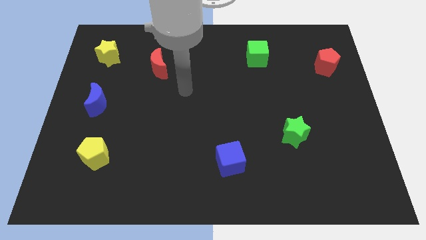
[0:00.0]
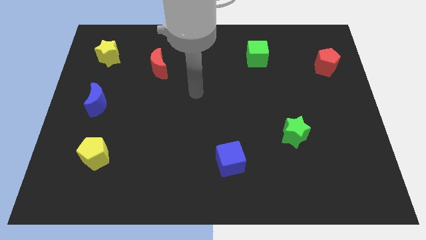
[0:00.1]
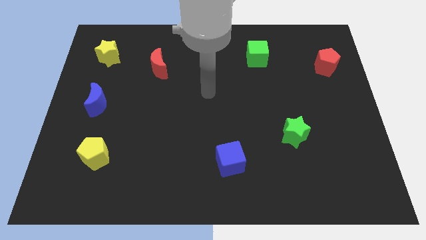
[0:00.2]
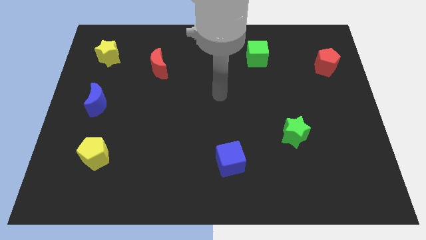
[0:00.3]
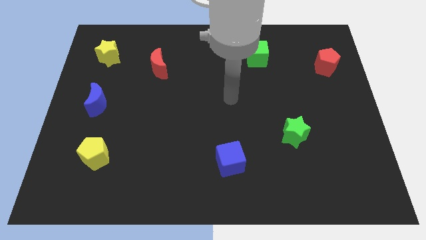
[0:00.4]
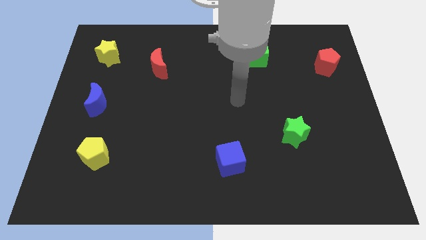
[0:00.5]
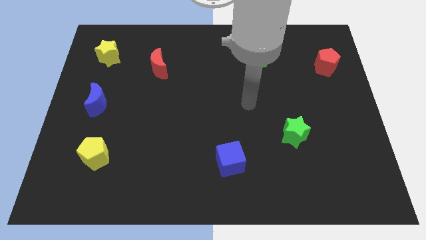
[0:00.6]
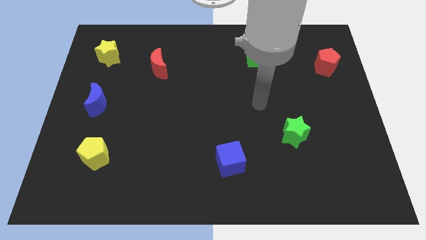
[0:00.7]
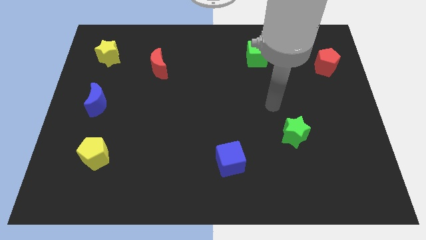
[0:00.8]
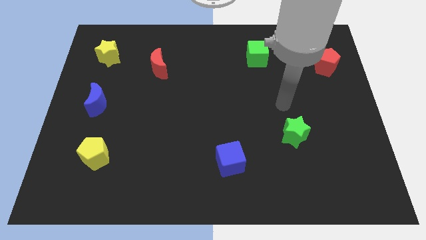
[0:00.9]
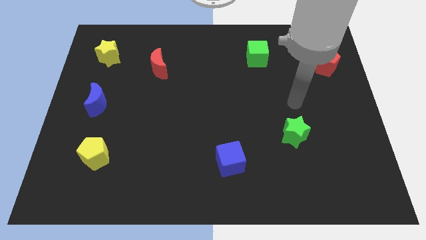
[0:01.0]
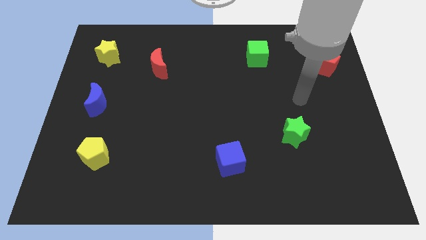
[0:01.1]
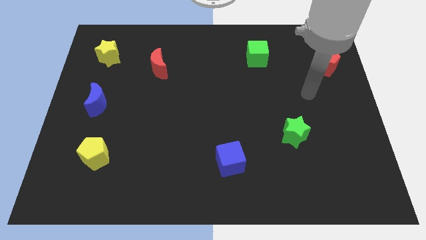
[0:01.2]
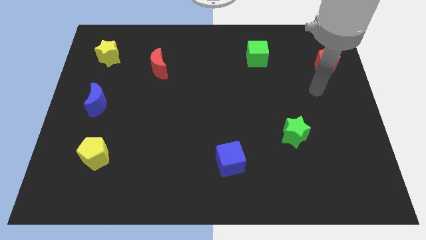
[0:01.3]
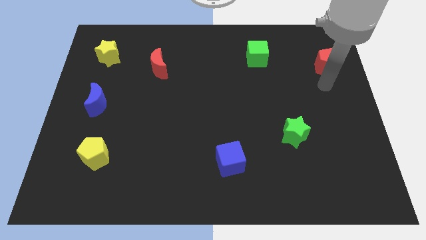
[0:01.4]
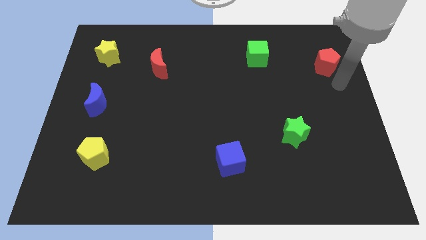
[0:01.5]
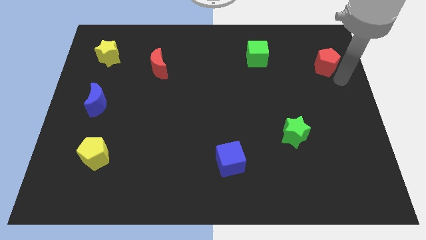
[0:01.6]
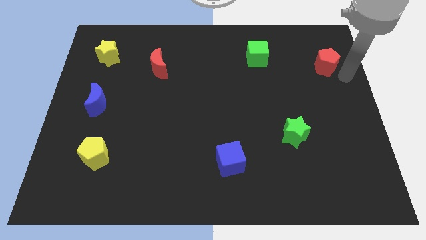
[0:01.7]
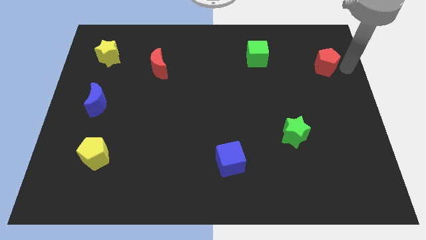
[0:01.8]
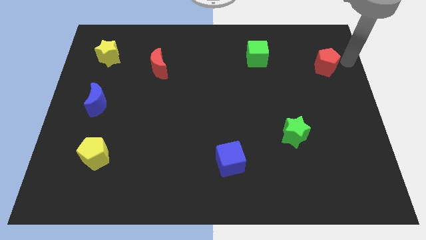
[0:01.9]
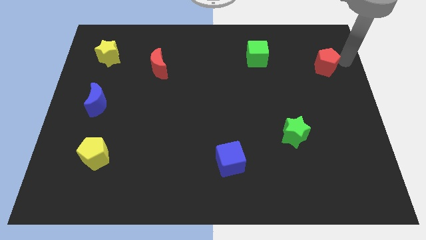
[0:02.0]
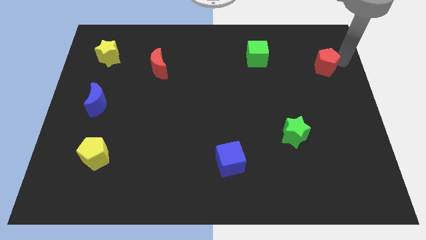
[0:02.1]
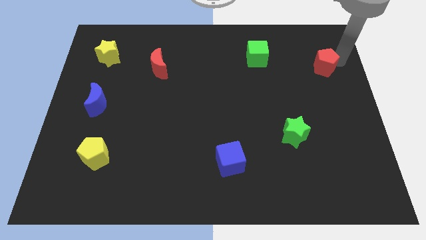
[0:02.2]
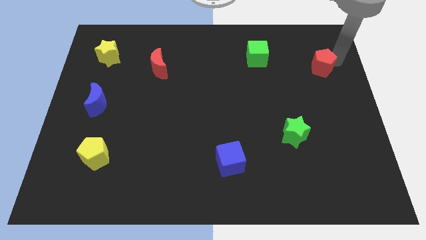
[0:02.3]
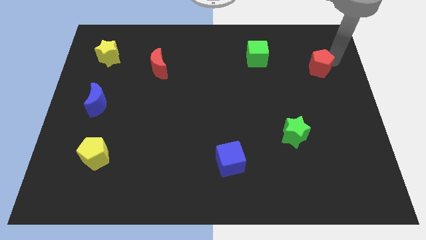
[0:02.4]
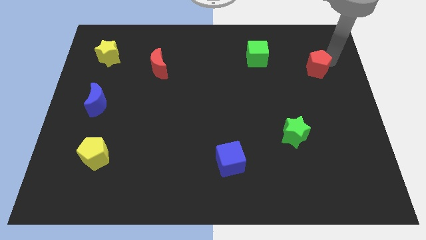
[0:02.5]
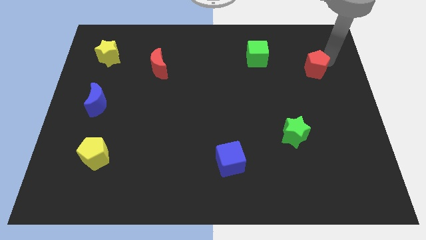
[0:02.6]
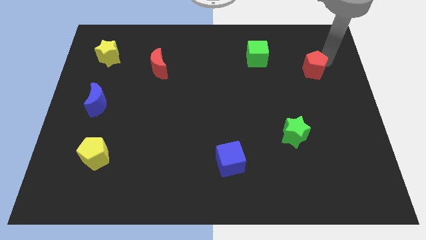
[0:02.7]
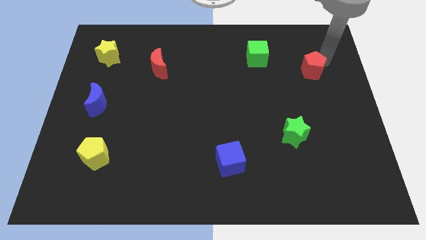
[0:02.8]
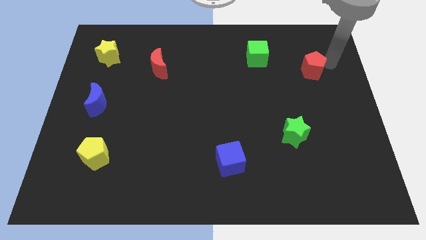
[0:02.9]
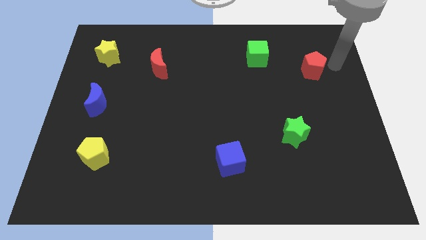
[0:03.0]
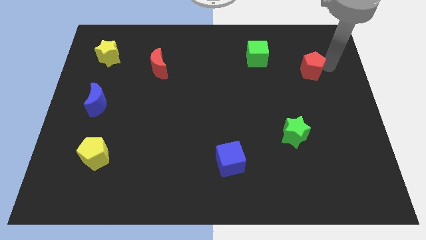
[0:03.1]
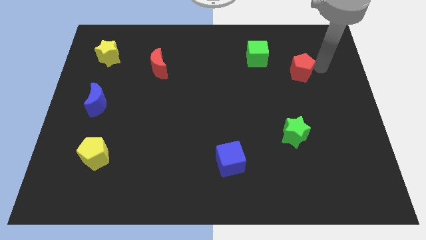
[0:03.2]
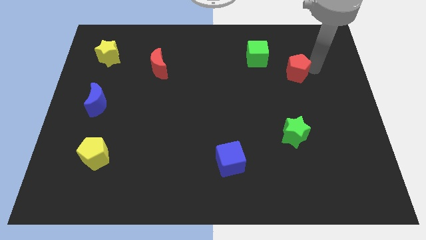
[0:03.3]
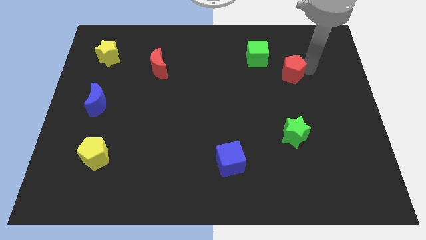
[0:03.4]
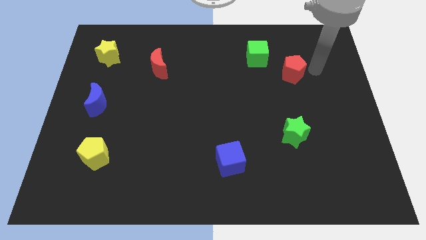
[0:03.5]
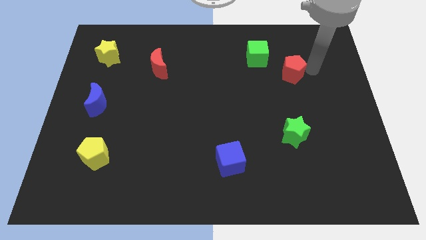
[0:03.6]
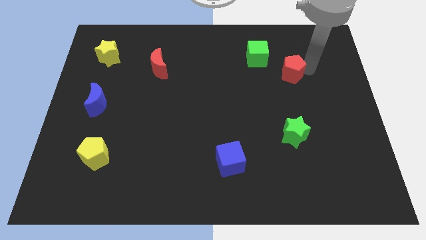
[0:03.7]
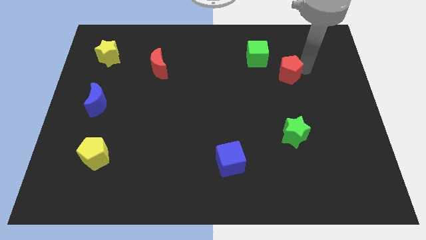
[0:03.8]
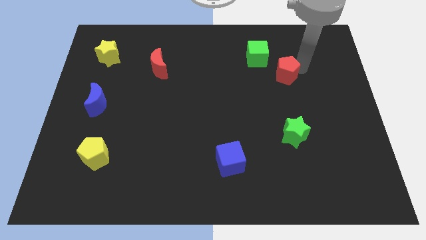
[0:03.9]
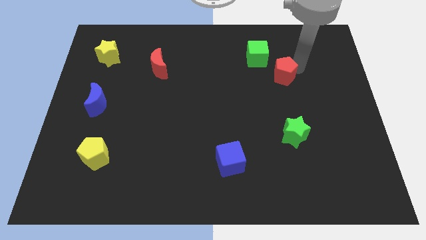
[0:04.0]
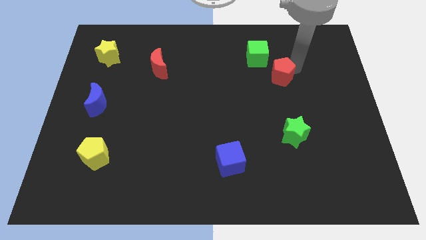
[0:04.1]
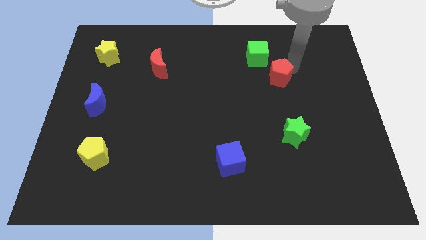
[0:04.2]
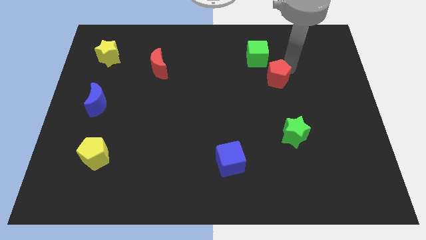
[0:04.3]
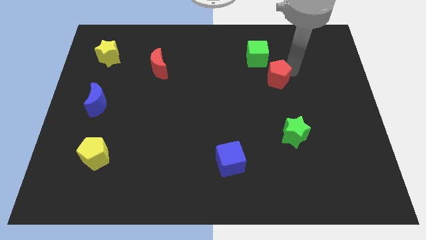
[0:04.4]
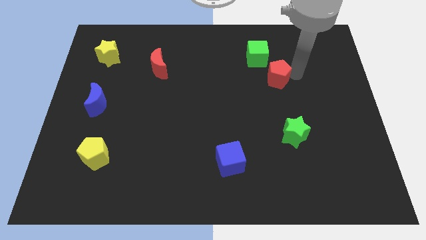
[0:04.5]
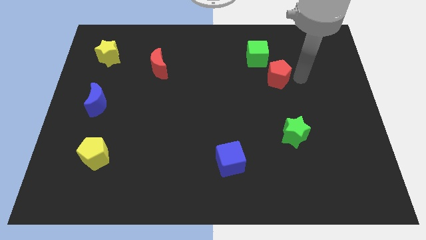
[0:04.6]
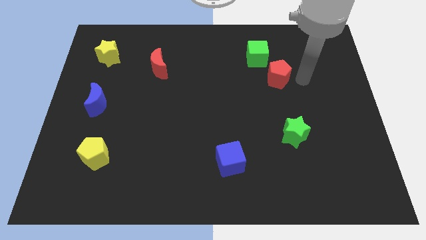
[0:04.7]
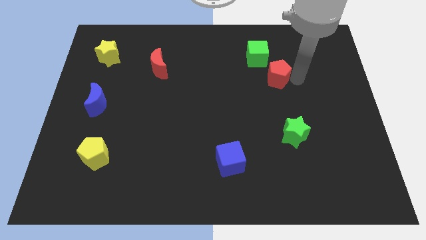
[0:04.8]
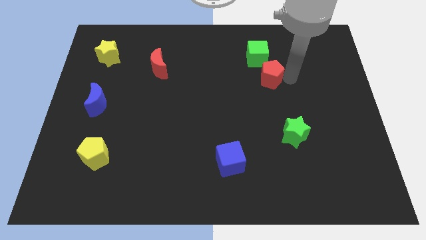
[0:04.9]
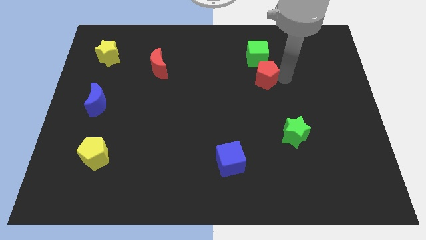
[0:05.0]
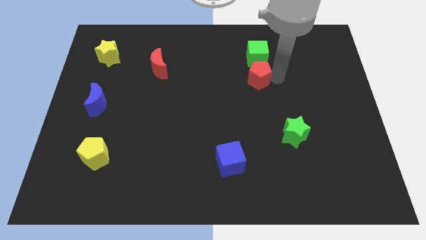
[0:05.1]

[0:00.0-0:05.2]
push the red pentagon diagonally down and to the left of the green cube

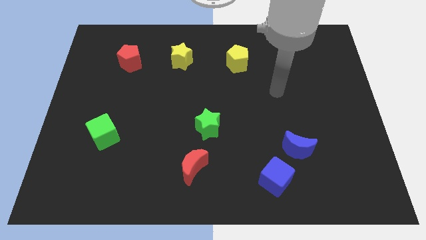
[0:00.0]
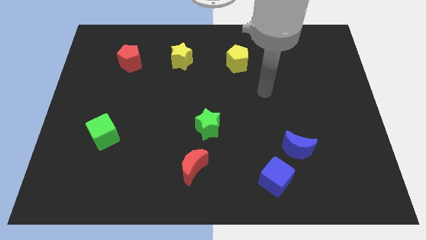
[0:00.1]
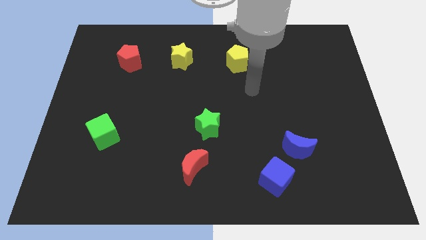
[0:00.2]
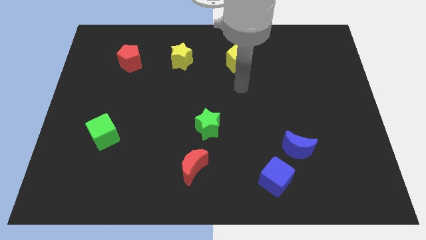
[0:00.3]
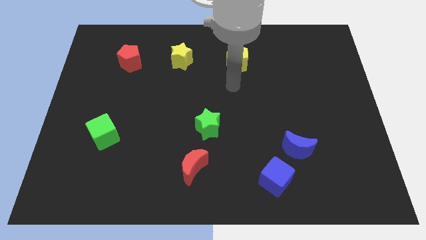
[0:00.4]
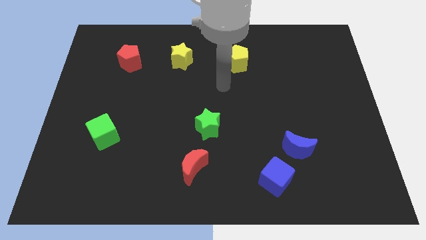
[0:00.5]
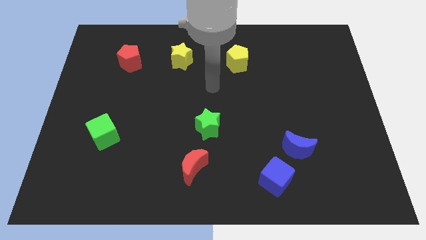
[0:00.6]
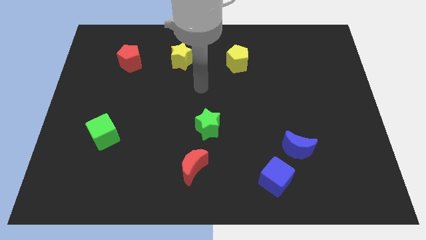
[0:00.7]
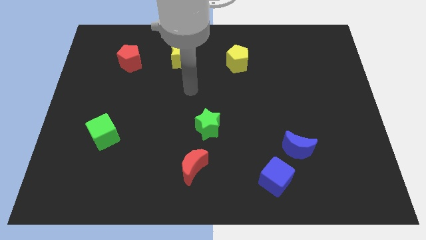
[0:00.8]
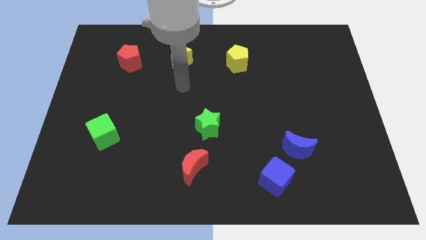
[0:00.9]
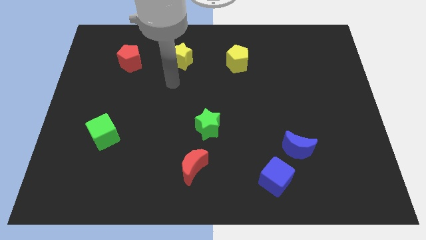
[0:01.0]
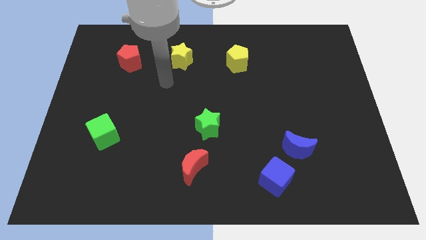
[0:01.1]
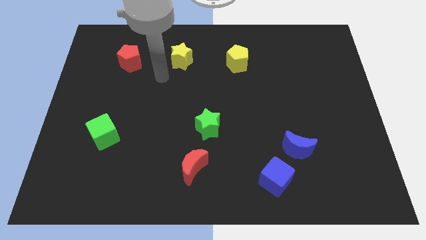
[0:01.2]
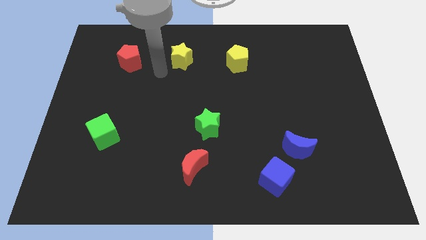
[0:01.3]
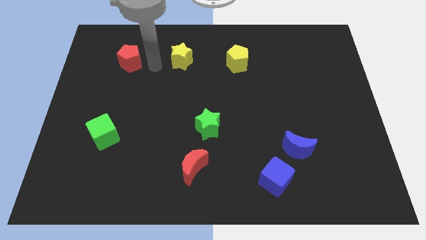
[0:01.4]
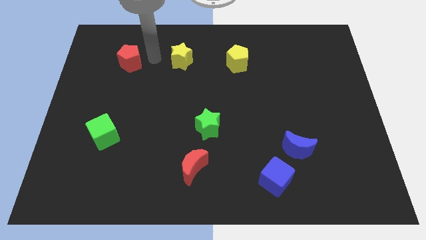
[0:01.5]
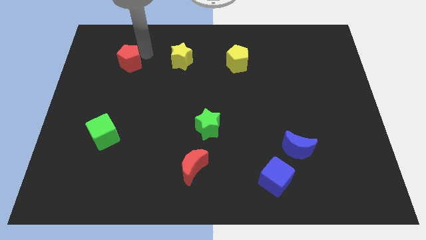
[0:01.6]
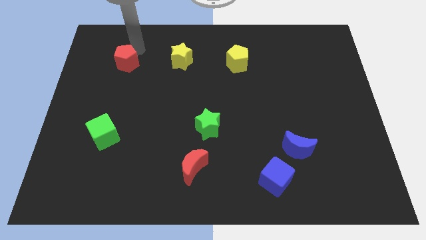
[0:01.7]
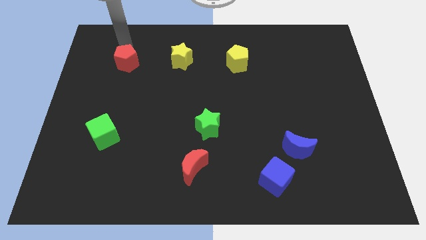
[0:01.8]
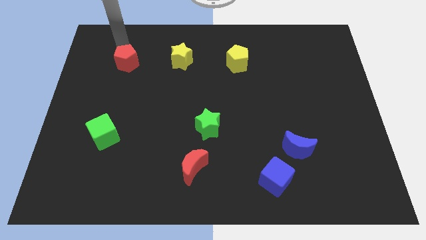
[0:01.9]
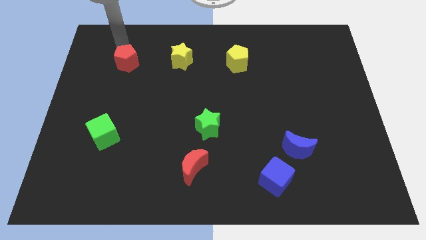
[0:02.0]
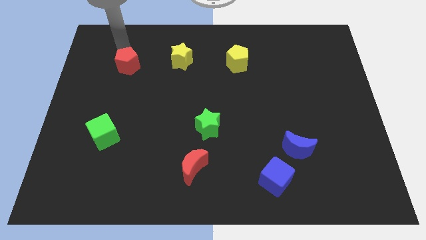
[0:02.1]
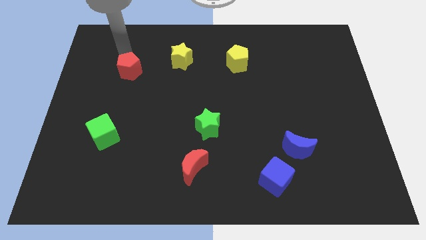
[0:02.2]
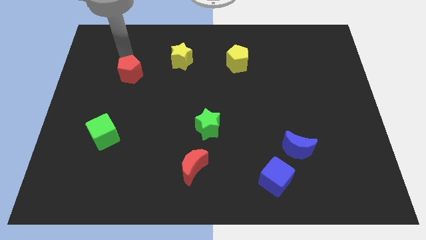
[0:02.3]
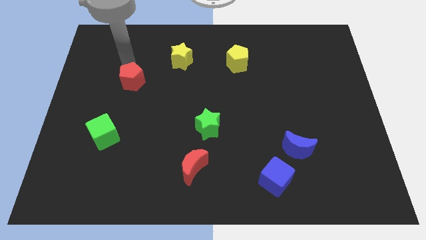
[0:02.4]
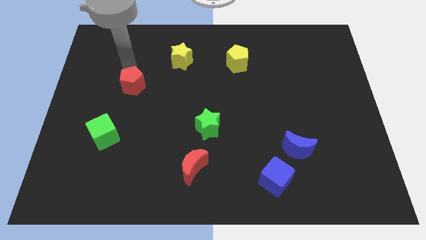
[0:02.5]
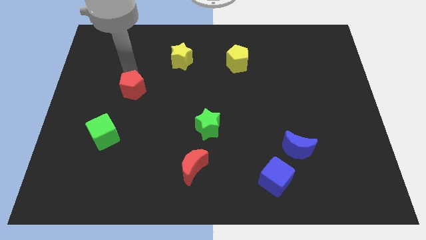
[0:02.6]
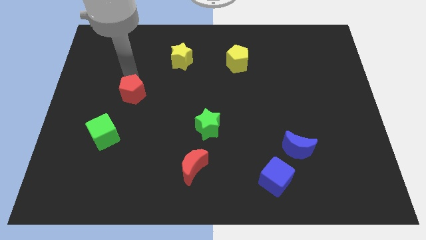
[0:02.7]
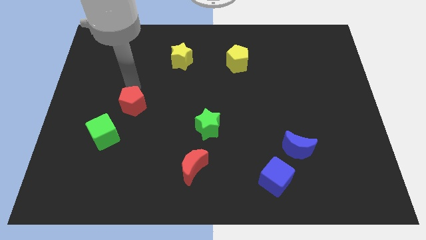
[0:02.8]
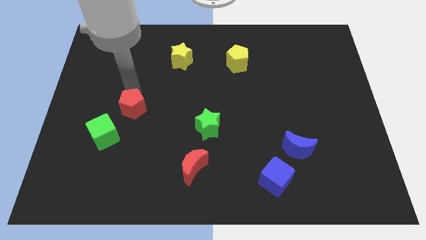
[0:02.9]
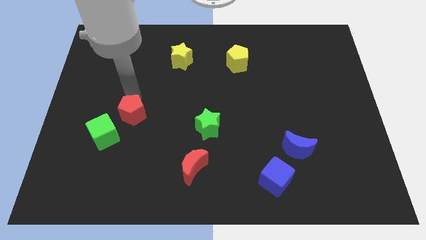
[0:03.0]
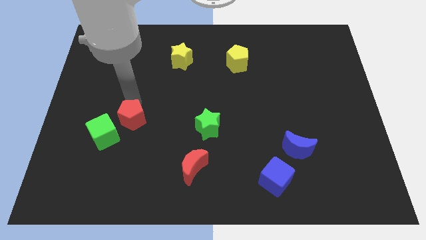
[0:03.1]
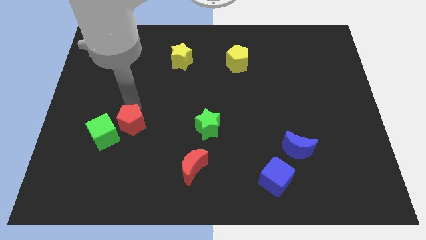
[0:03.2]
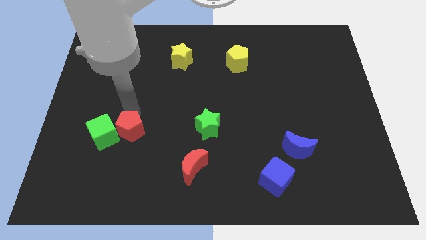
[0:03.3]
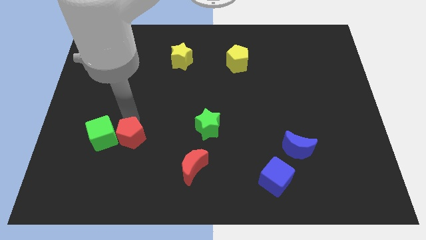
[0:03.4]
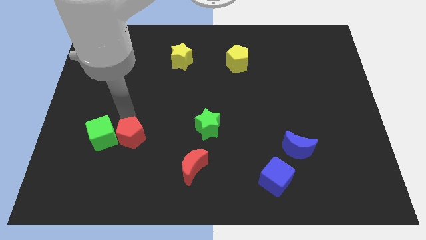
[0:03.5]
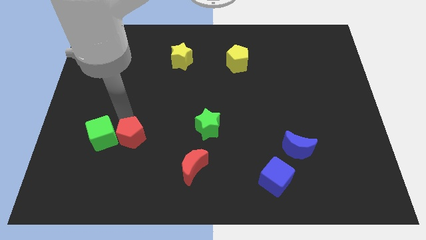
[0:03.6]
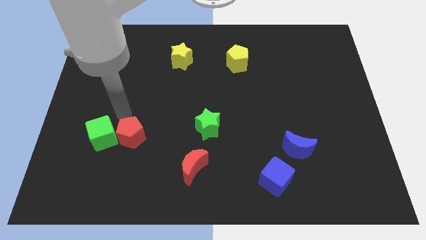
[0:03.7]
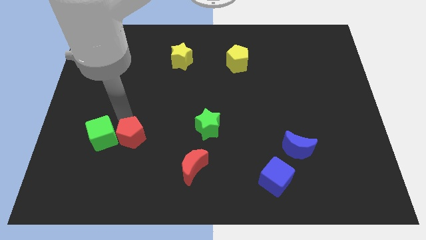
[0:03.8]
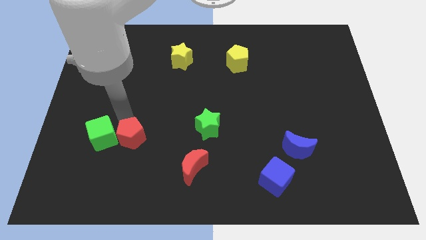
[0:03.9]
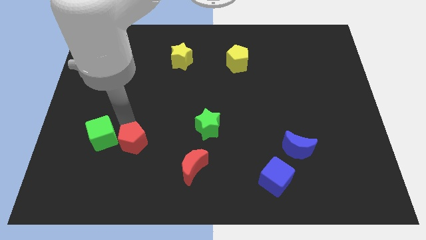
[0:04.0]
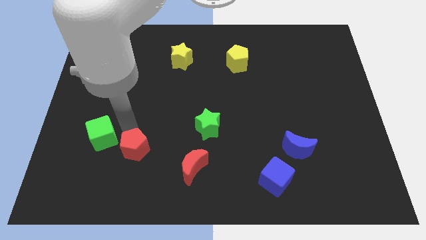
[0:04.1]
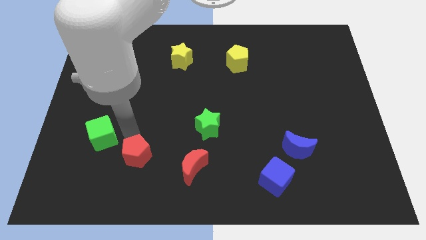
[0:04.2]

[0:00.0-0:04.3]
put the red pentagon just left of the red moon
